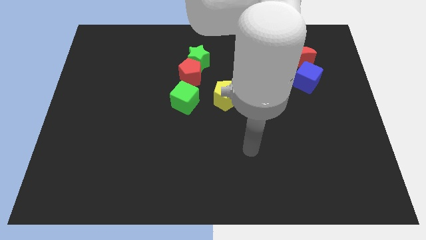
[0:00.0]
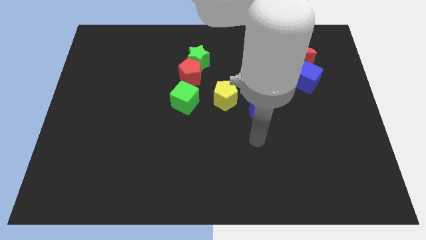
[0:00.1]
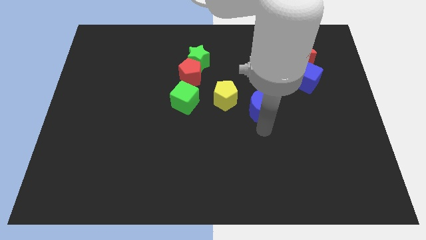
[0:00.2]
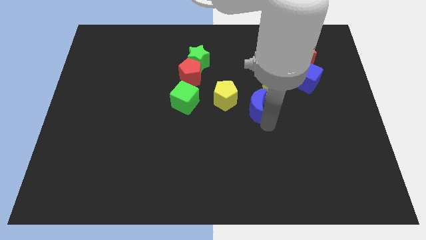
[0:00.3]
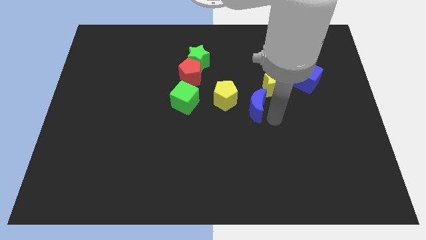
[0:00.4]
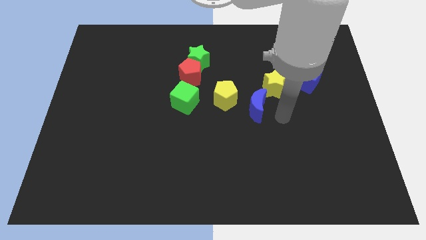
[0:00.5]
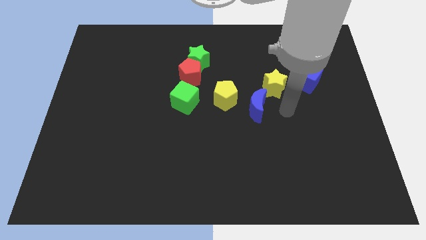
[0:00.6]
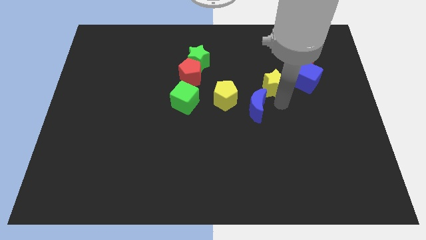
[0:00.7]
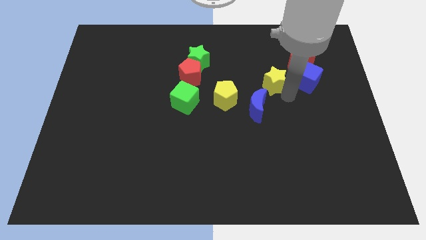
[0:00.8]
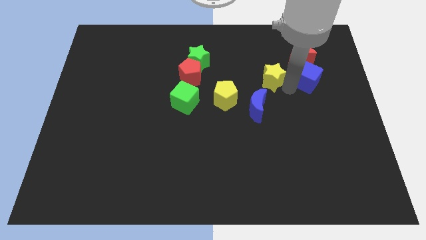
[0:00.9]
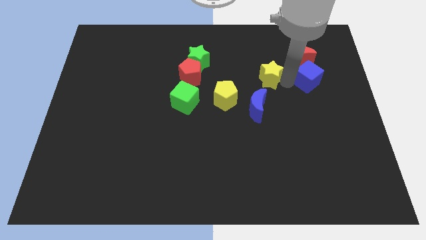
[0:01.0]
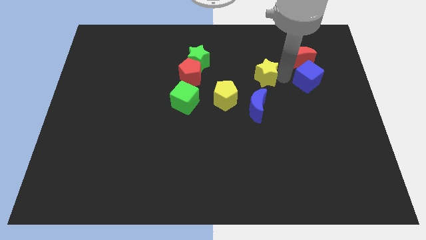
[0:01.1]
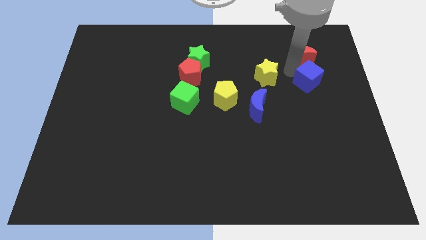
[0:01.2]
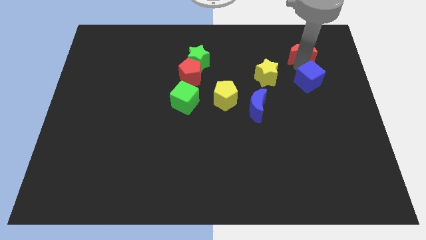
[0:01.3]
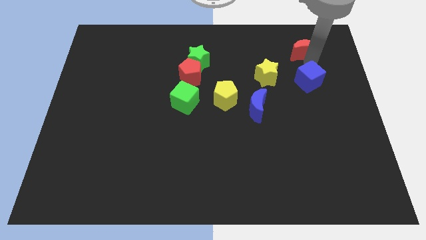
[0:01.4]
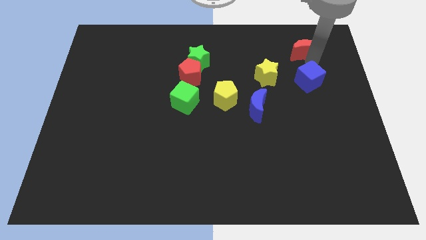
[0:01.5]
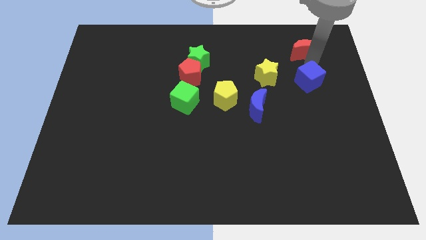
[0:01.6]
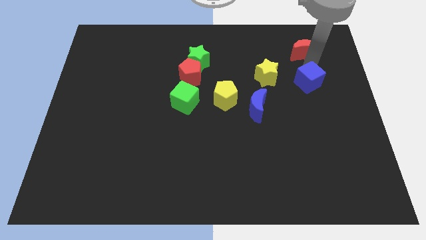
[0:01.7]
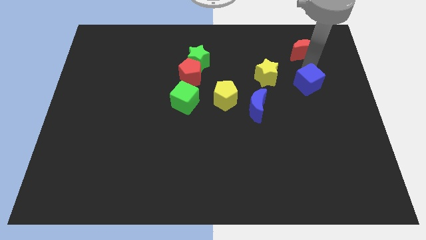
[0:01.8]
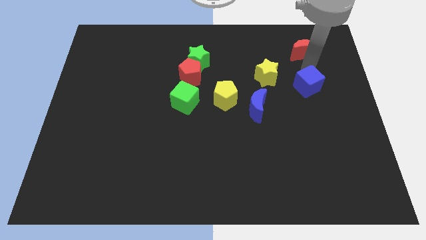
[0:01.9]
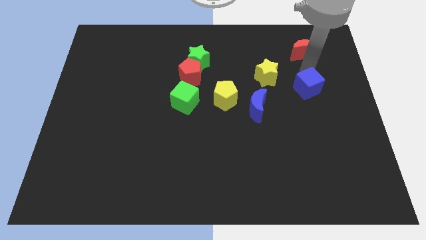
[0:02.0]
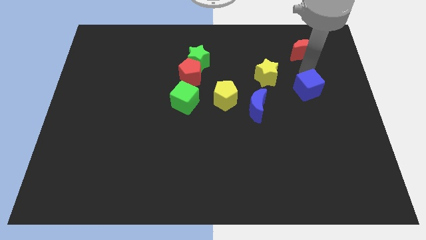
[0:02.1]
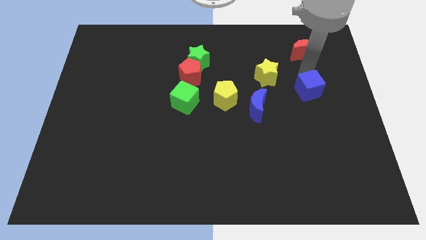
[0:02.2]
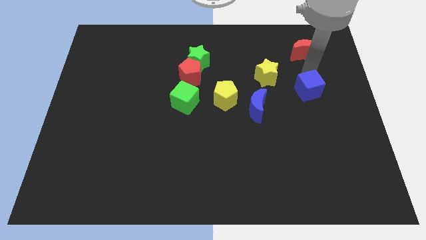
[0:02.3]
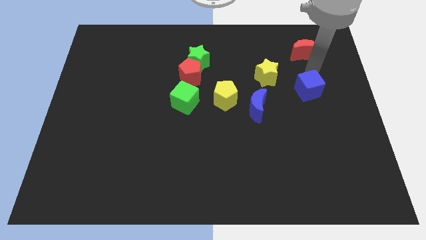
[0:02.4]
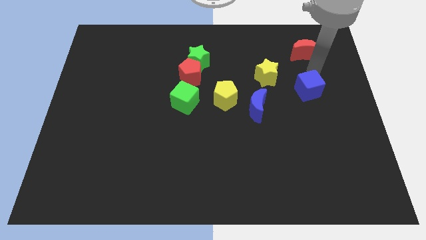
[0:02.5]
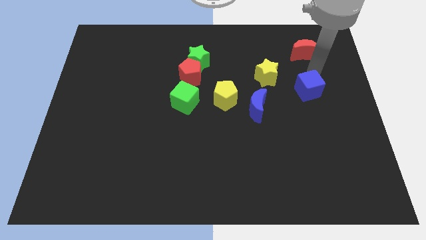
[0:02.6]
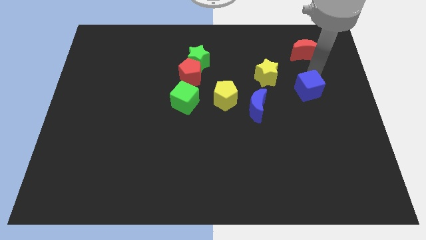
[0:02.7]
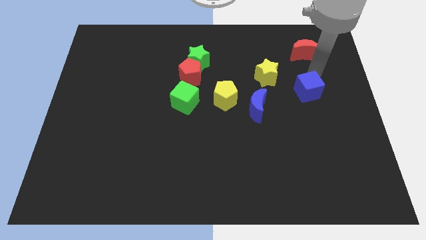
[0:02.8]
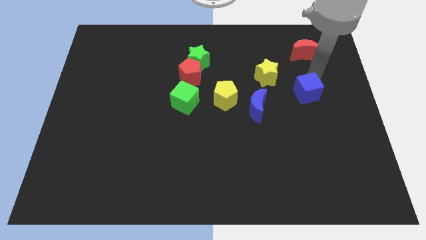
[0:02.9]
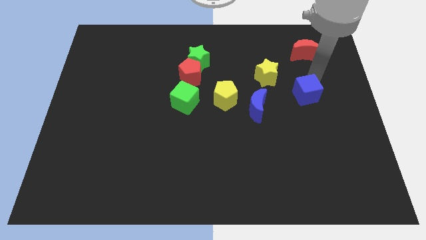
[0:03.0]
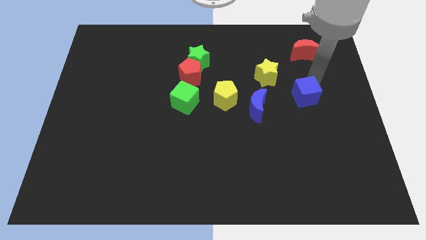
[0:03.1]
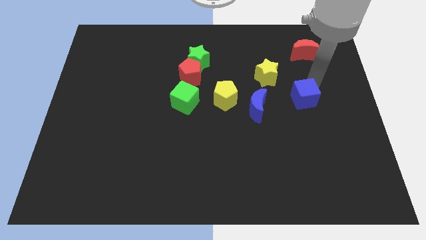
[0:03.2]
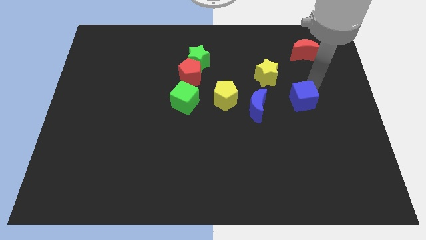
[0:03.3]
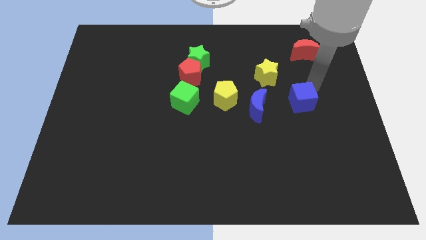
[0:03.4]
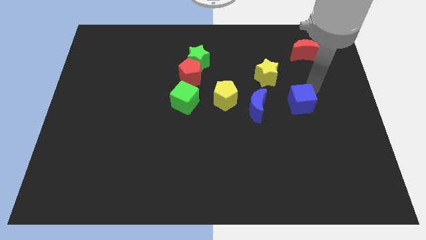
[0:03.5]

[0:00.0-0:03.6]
slightly move the blue cube downwards

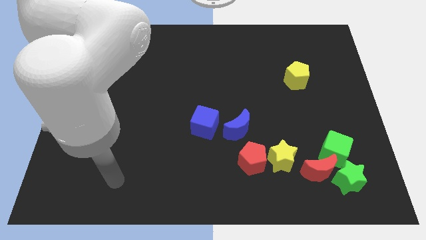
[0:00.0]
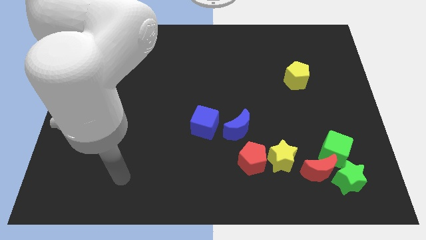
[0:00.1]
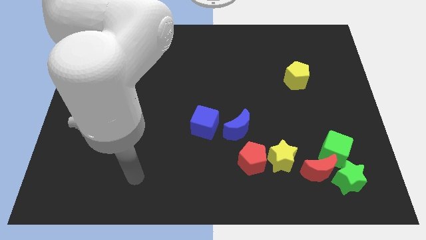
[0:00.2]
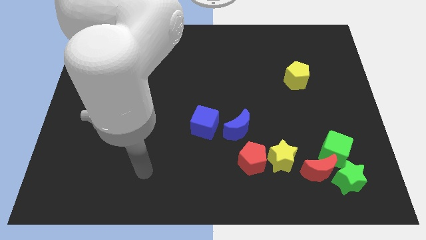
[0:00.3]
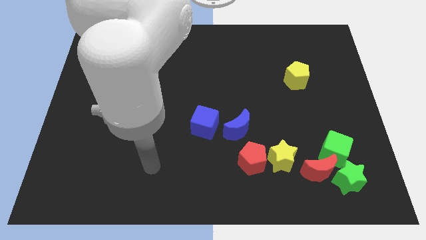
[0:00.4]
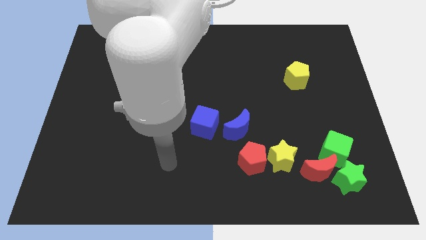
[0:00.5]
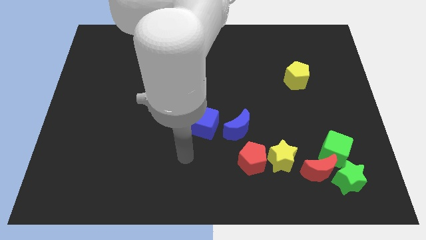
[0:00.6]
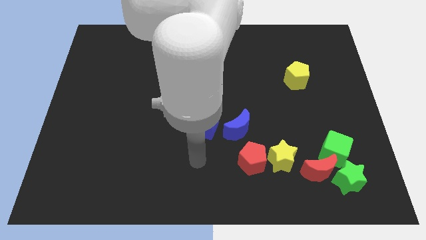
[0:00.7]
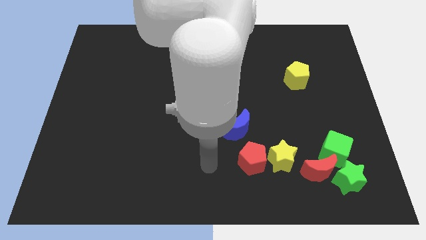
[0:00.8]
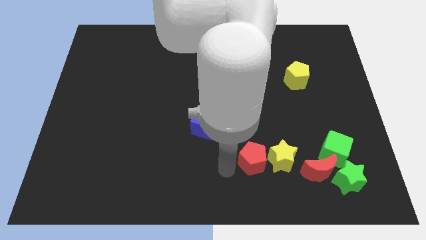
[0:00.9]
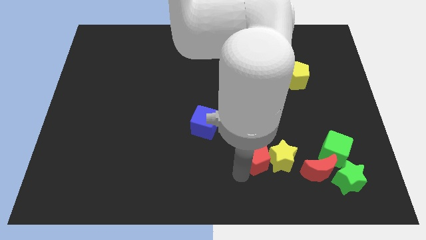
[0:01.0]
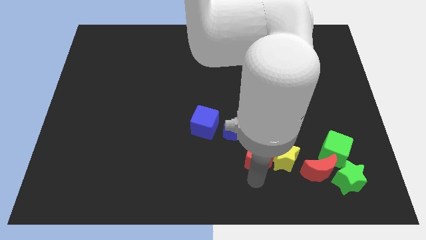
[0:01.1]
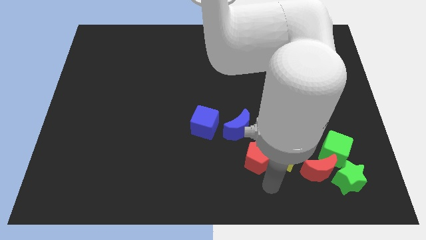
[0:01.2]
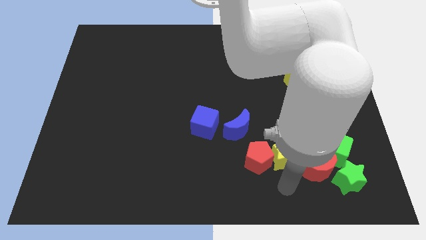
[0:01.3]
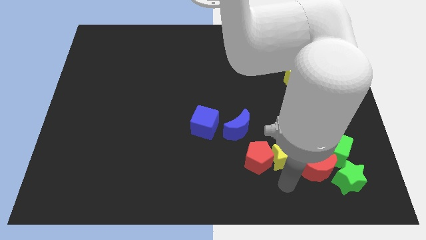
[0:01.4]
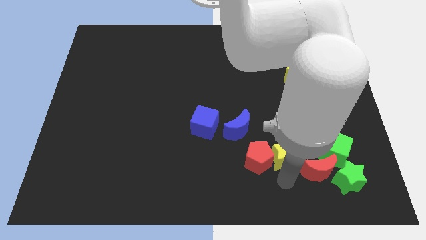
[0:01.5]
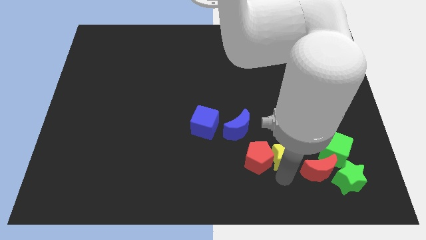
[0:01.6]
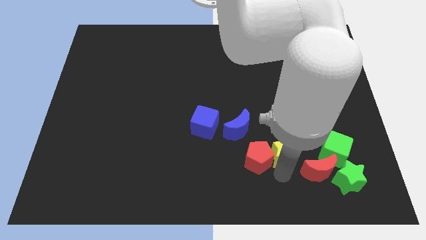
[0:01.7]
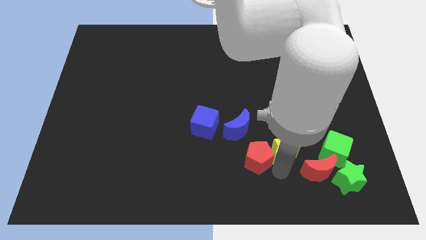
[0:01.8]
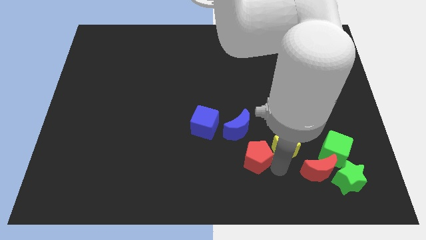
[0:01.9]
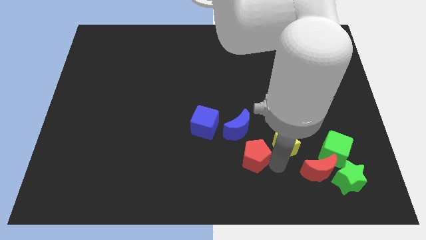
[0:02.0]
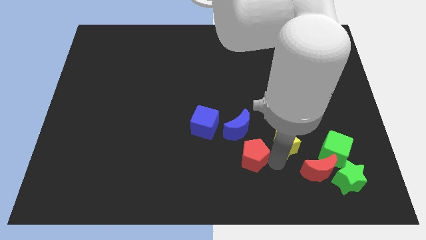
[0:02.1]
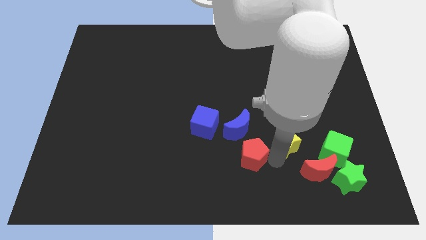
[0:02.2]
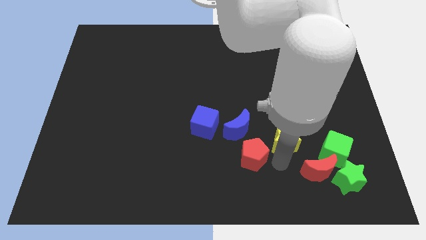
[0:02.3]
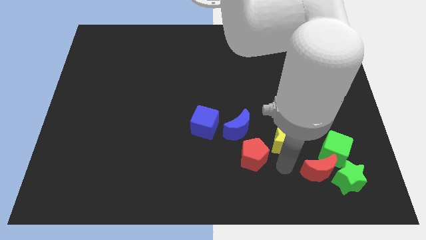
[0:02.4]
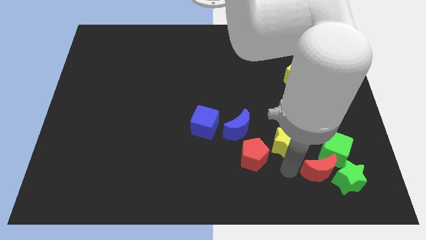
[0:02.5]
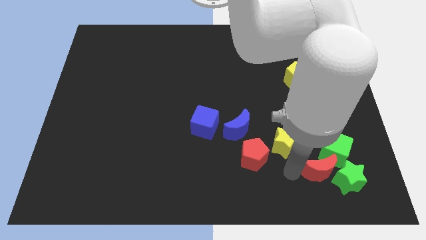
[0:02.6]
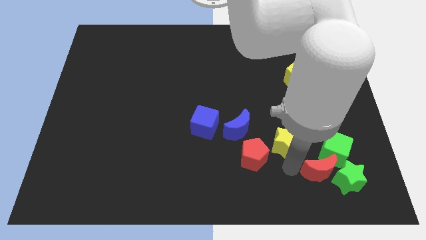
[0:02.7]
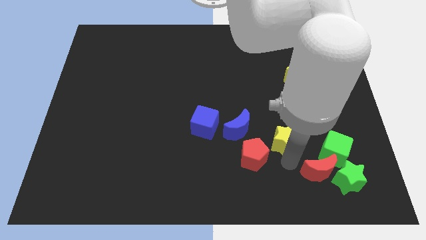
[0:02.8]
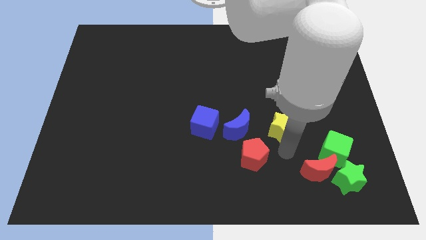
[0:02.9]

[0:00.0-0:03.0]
slightly push the yellow star up

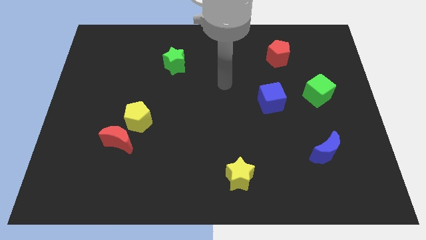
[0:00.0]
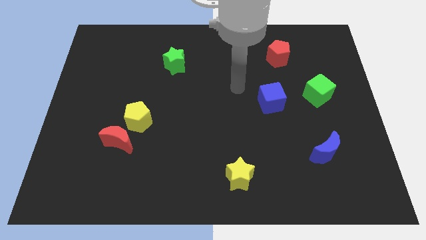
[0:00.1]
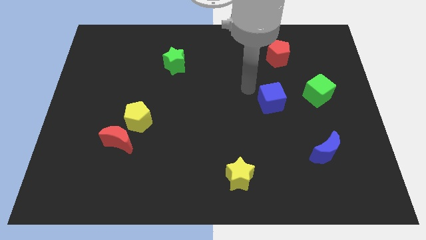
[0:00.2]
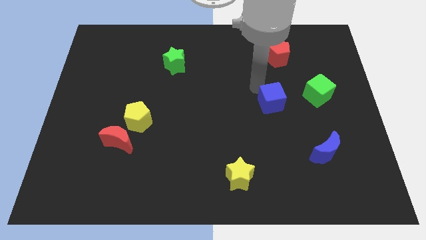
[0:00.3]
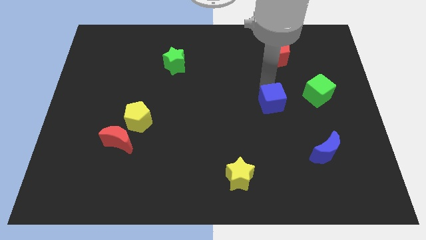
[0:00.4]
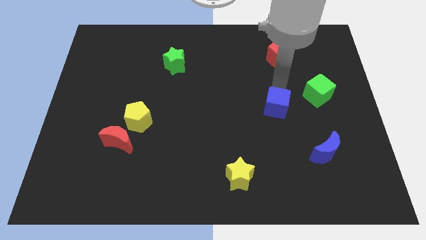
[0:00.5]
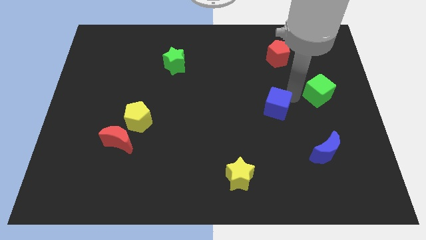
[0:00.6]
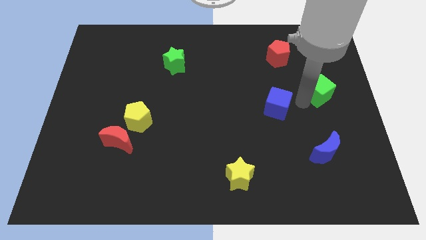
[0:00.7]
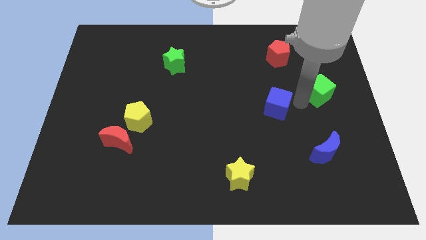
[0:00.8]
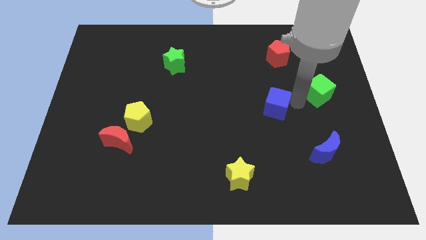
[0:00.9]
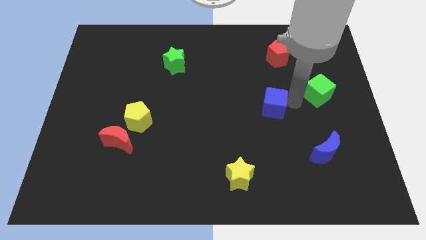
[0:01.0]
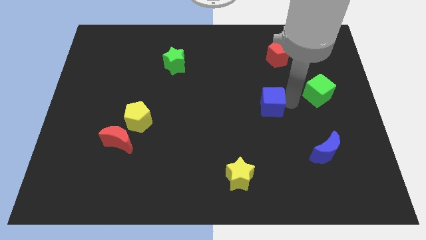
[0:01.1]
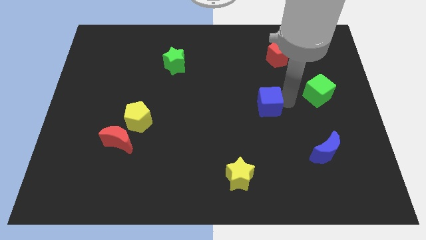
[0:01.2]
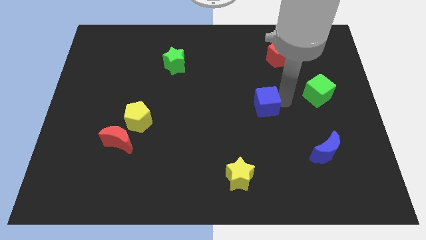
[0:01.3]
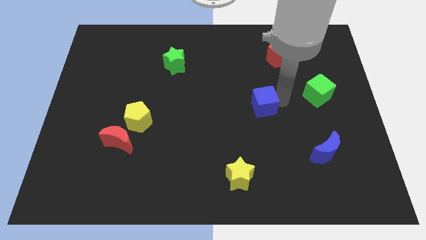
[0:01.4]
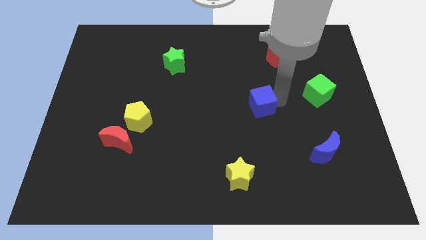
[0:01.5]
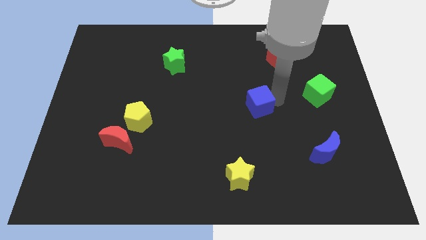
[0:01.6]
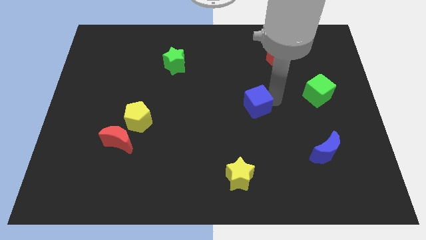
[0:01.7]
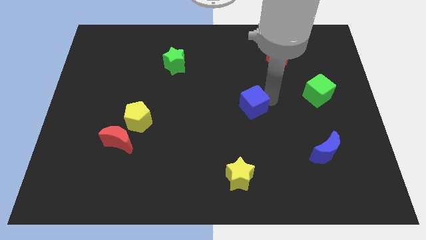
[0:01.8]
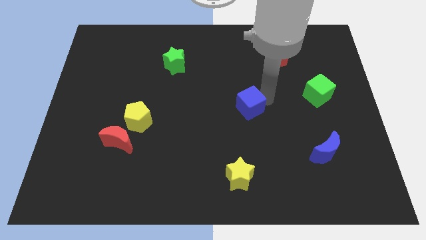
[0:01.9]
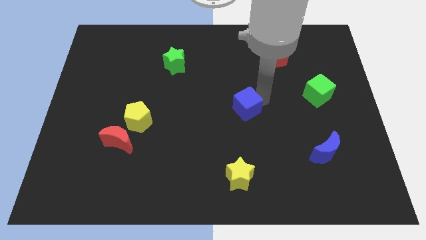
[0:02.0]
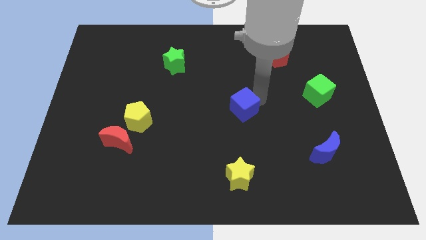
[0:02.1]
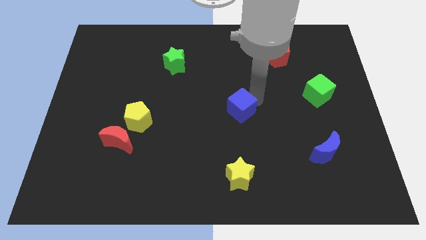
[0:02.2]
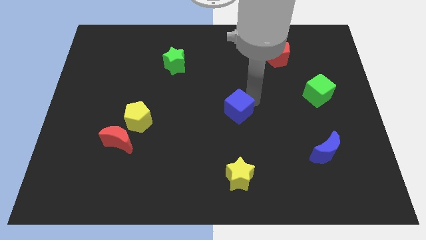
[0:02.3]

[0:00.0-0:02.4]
slightly slide the blue cube down and to the left diagonally
